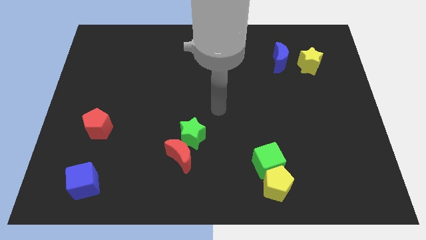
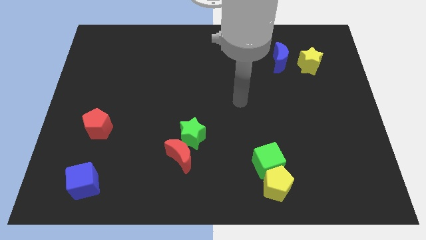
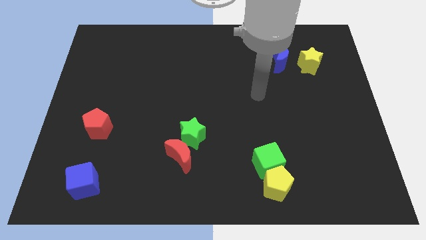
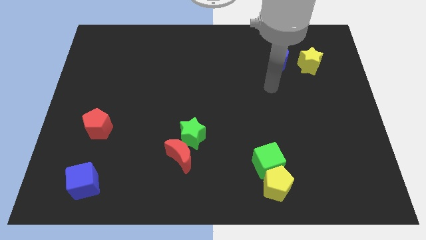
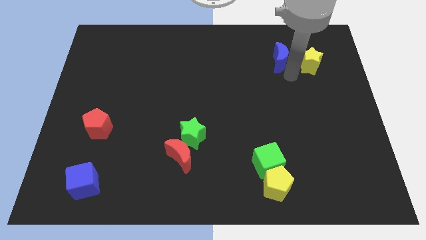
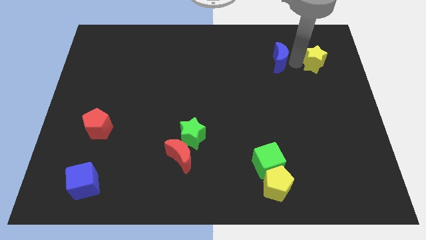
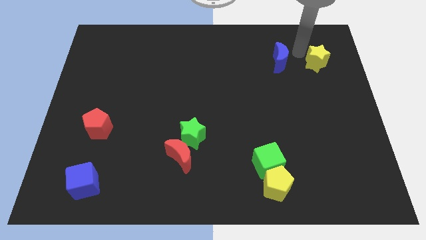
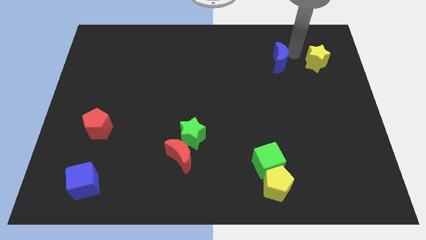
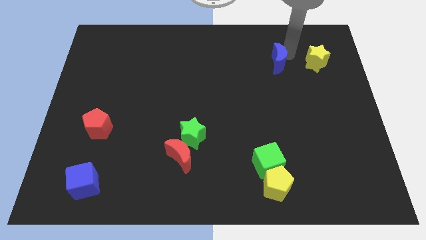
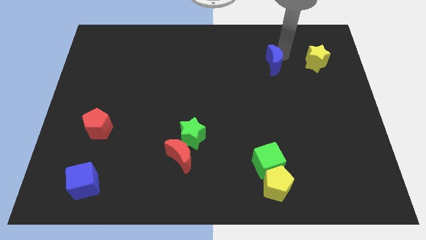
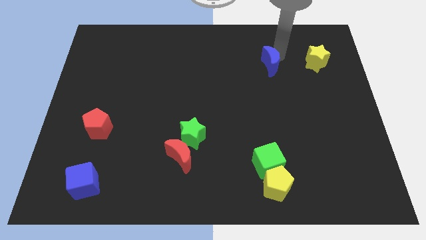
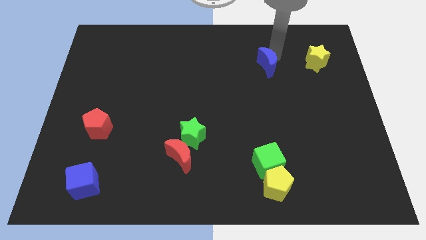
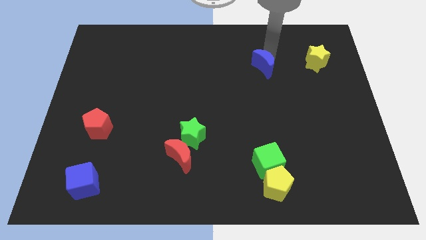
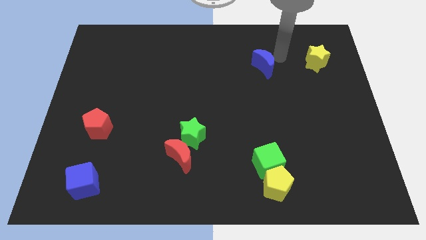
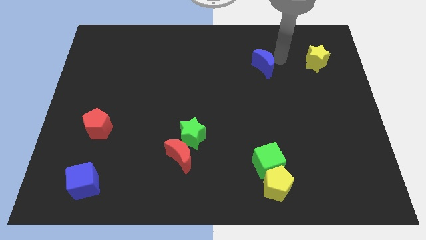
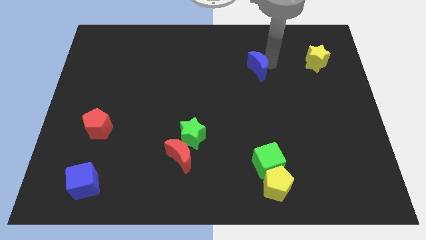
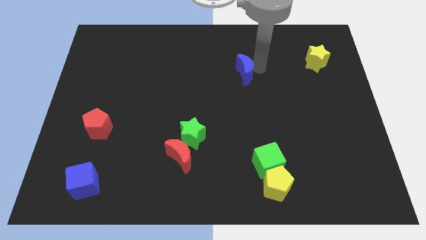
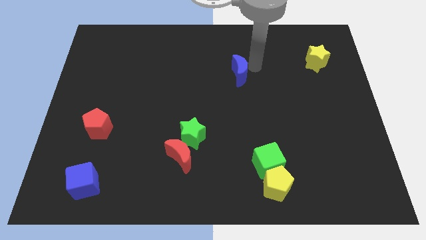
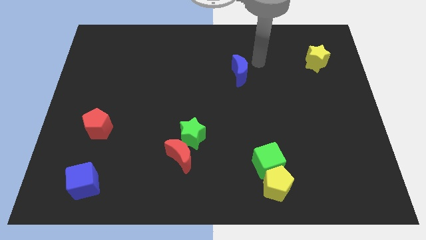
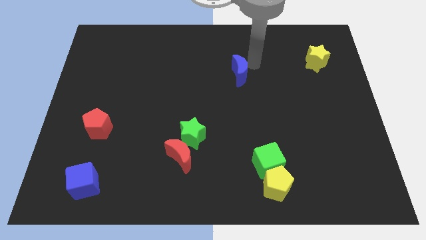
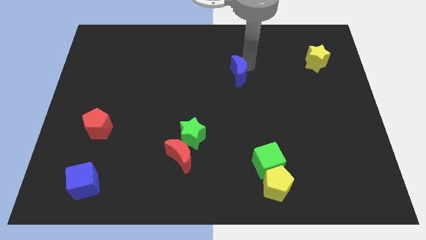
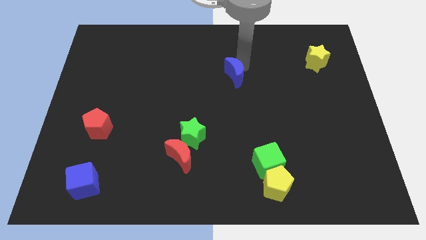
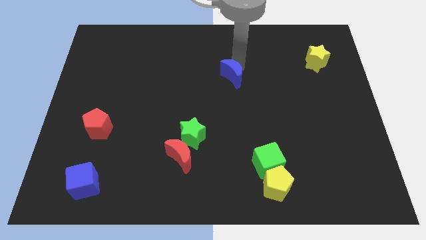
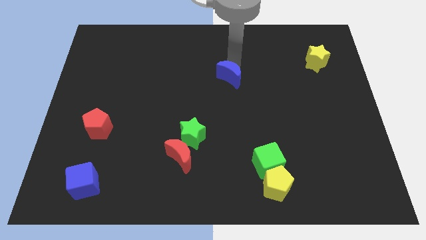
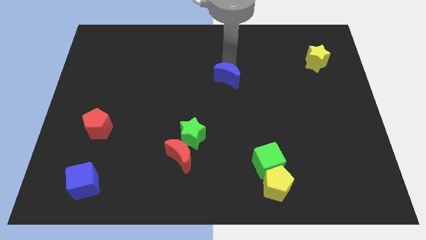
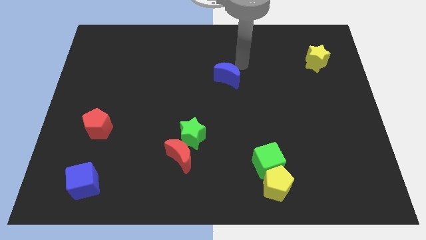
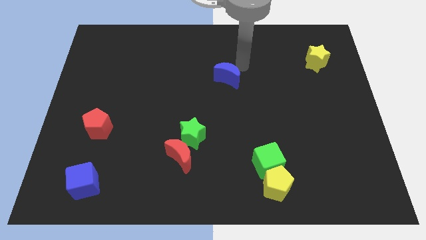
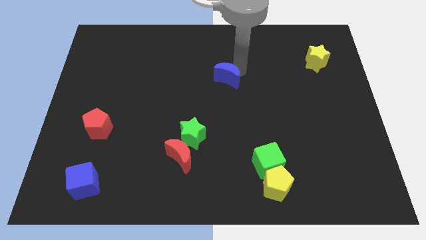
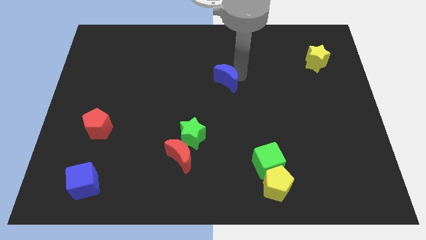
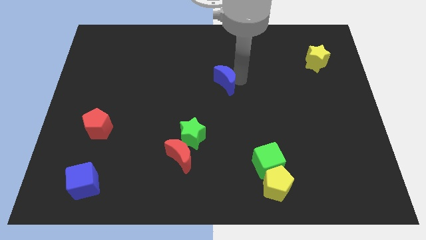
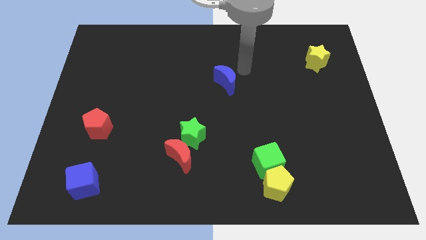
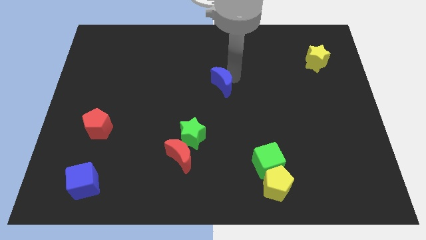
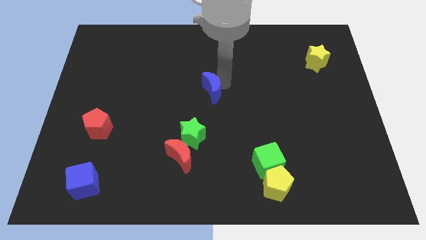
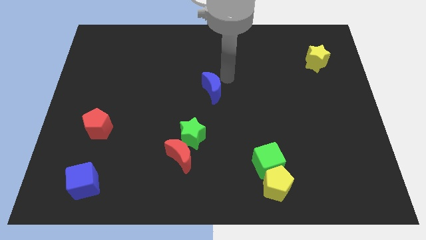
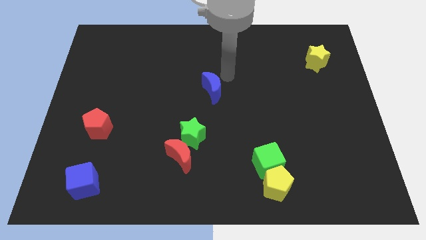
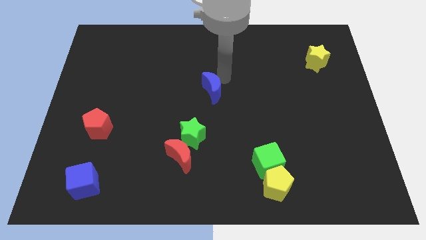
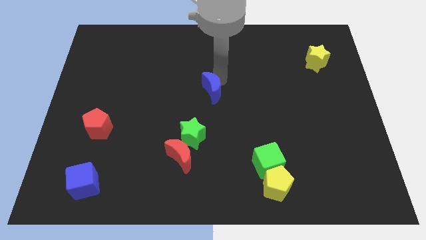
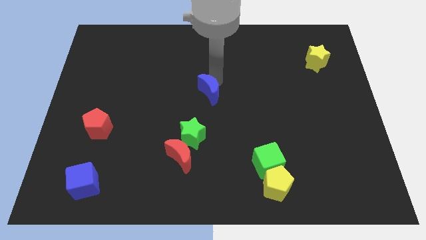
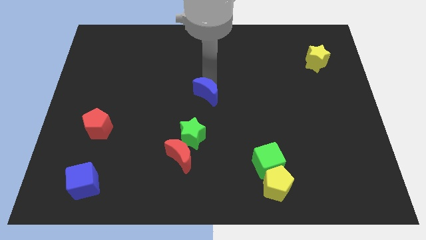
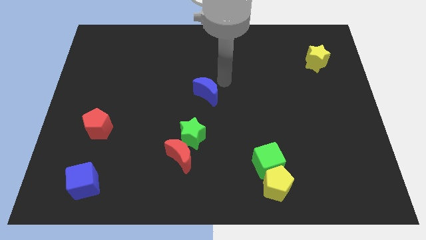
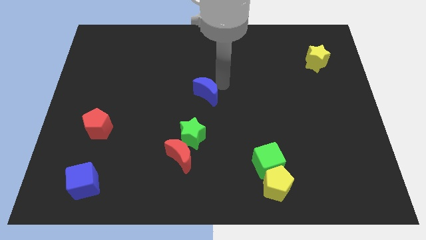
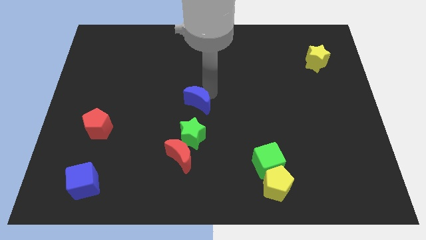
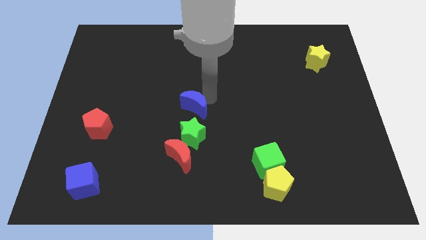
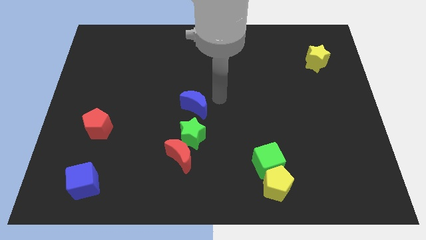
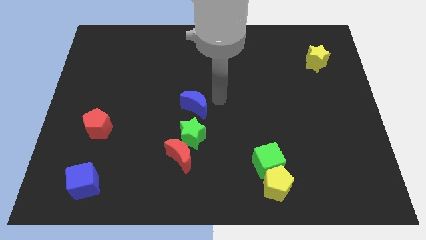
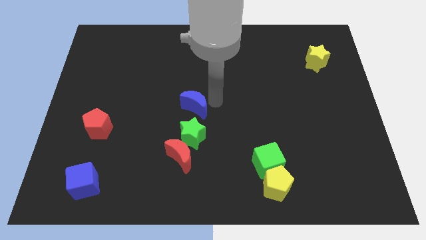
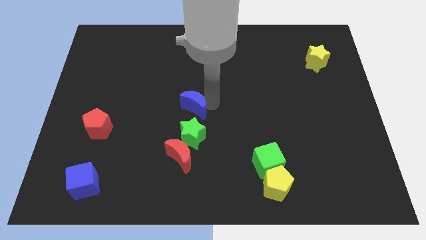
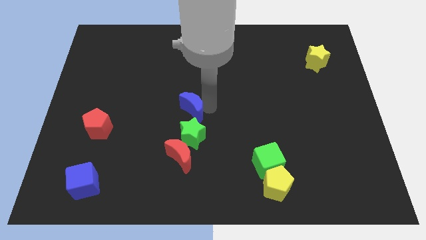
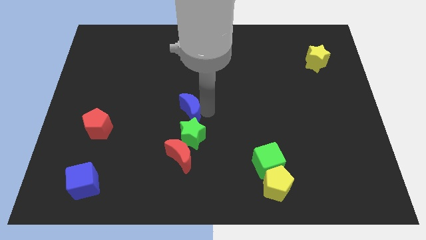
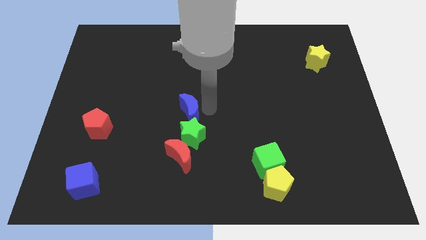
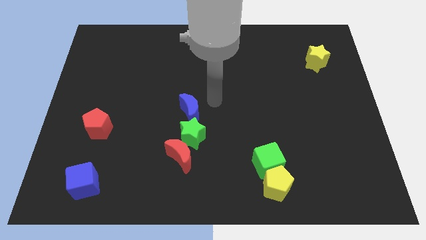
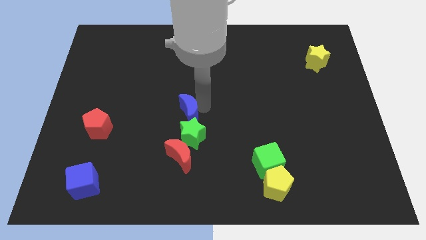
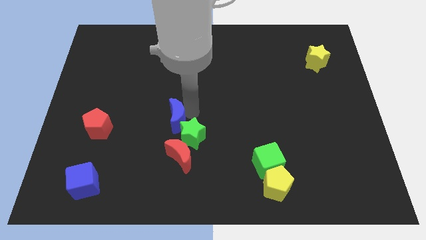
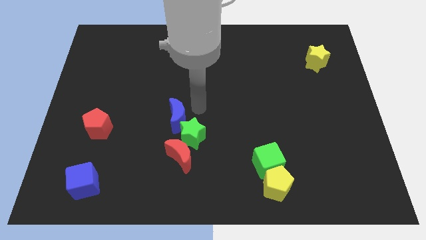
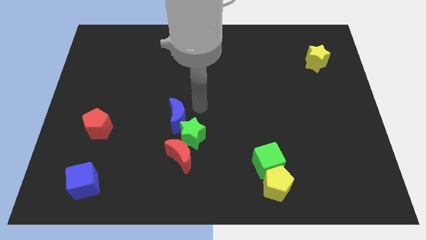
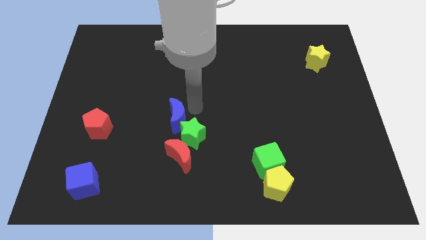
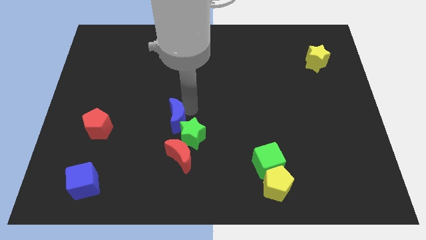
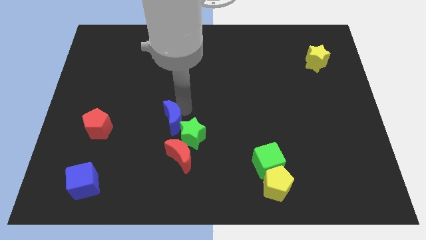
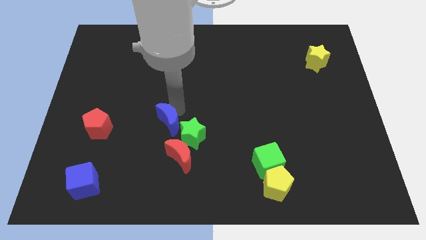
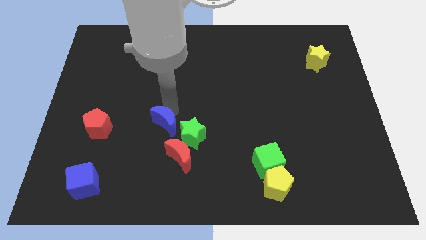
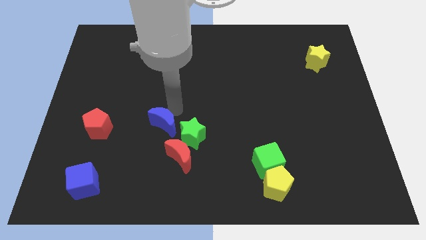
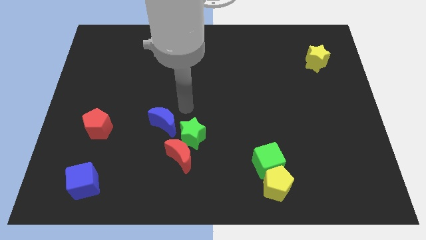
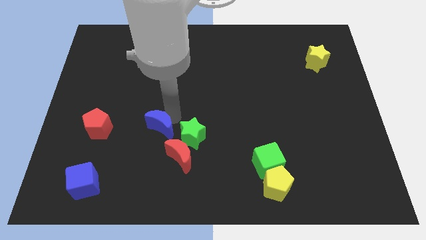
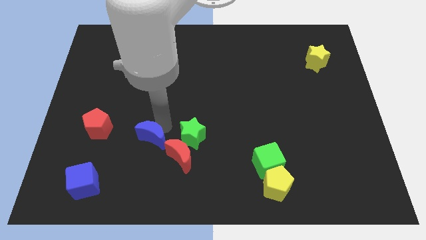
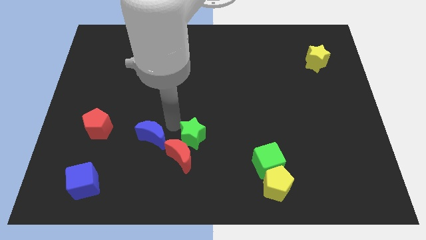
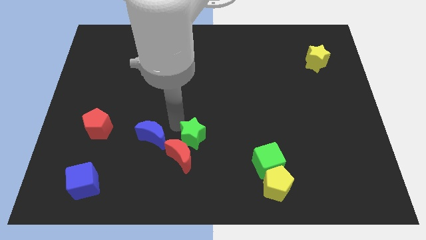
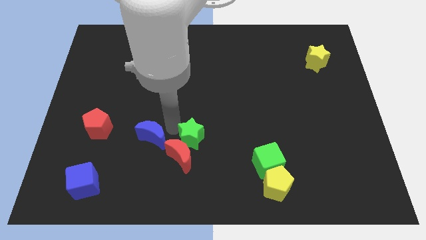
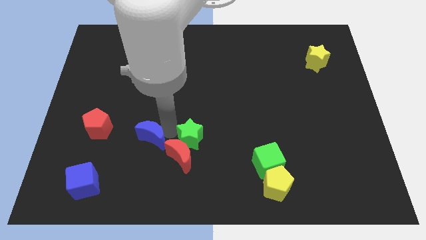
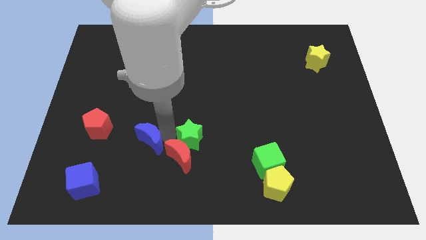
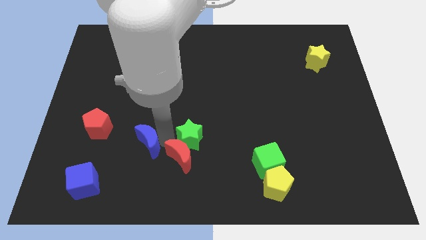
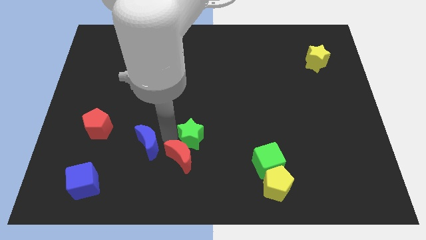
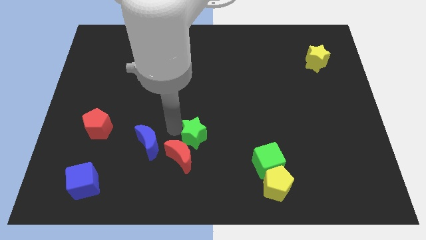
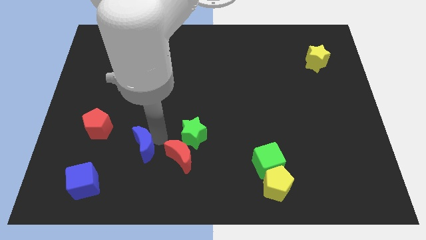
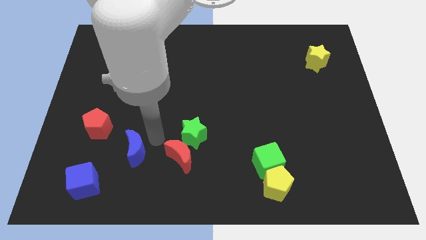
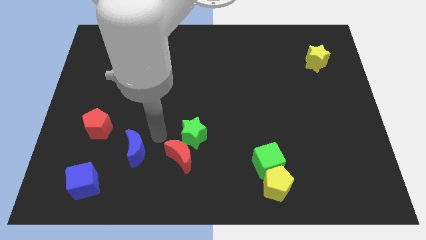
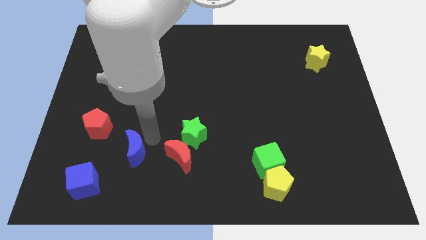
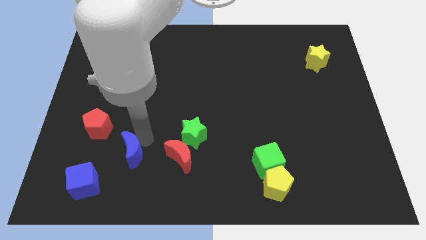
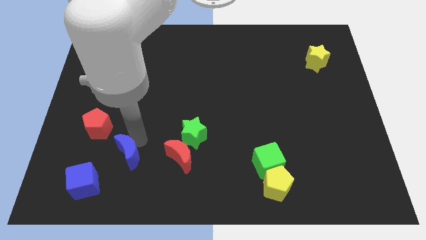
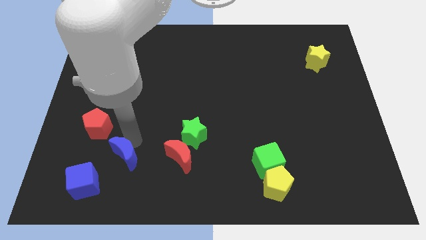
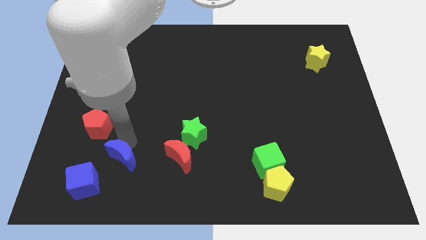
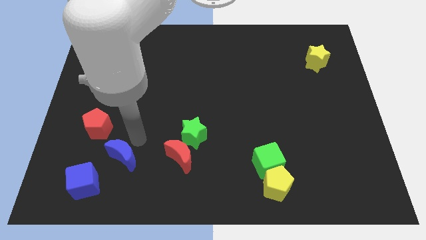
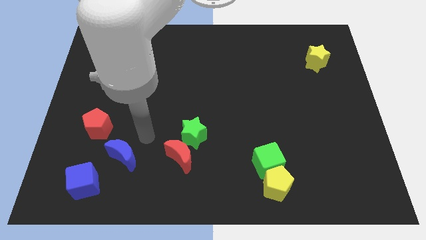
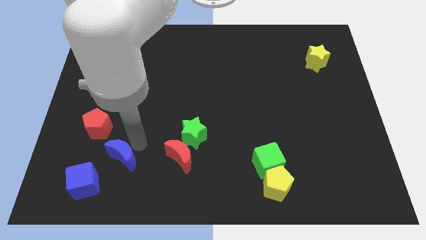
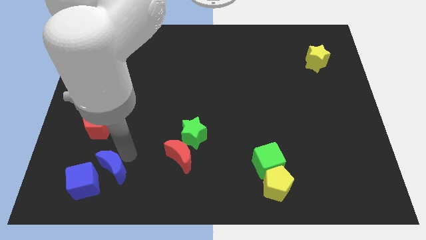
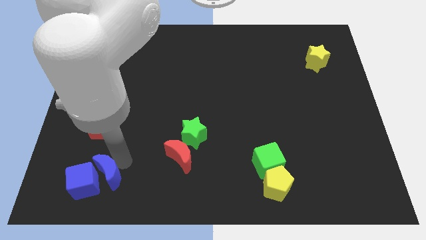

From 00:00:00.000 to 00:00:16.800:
put the blue moon to the blue cube
